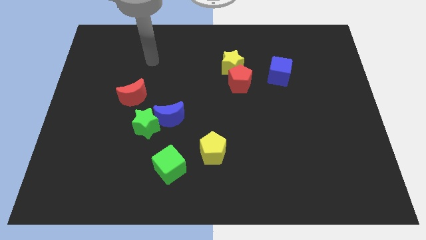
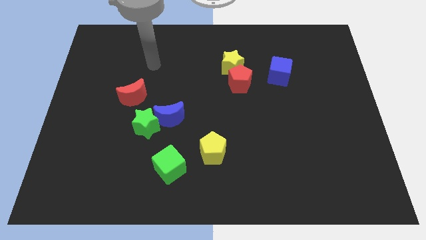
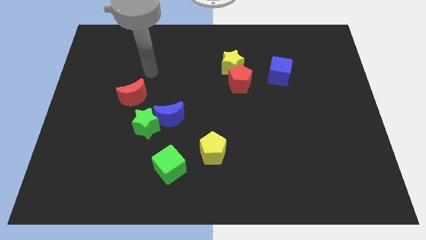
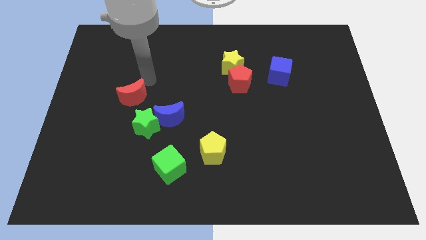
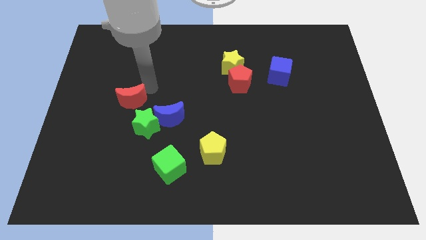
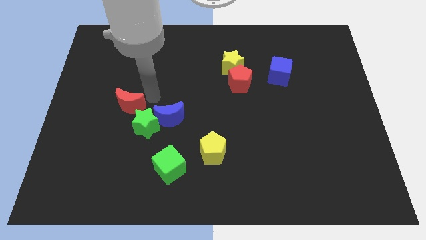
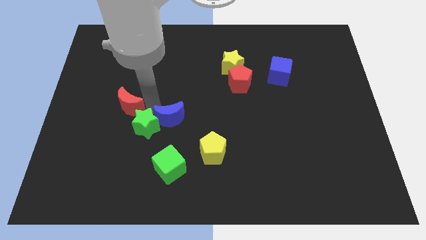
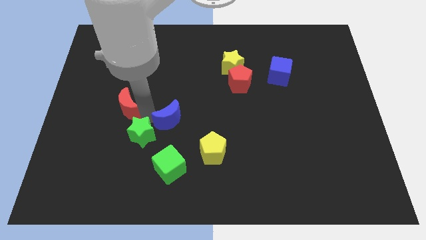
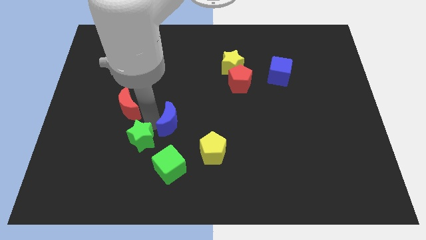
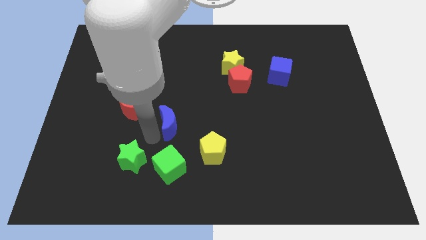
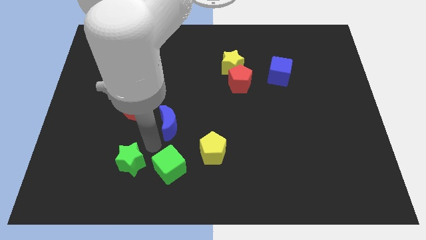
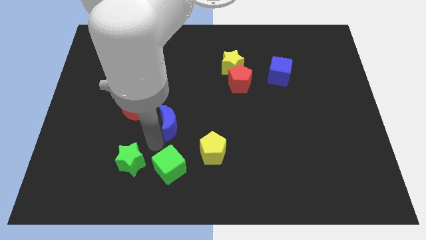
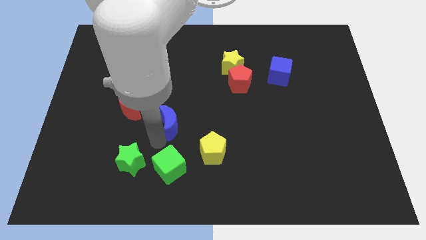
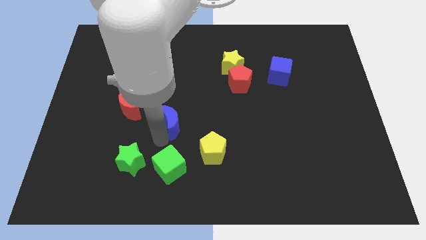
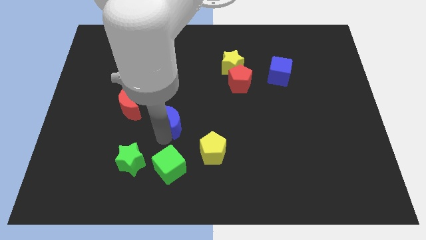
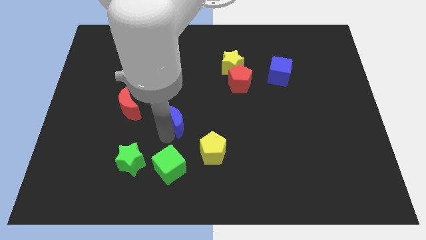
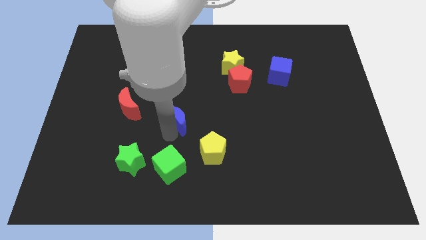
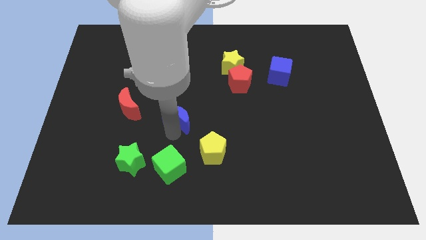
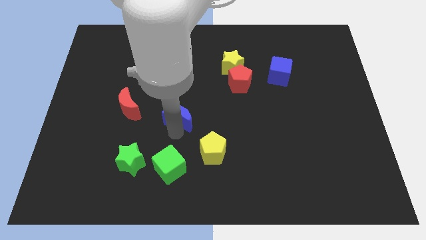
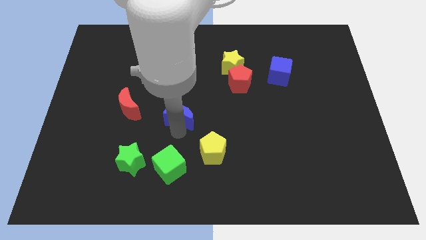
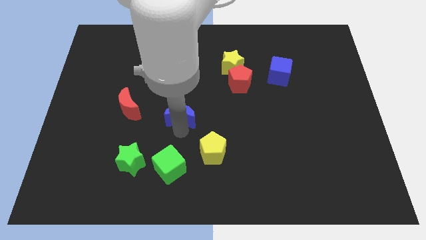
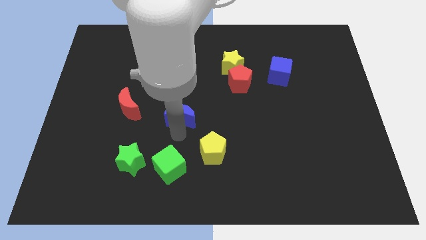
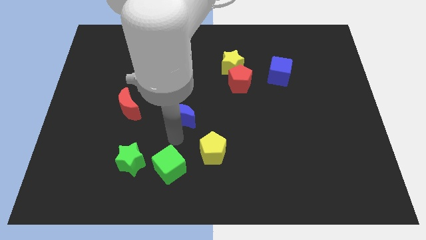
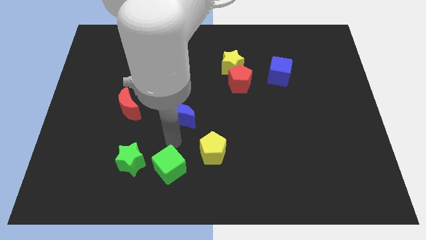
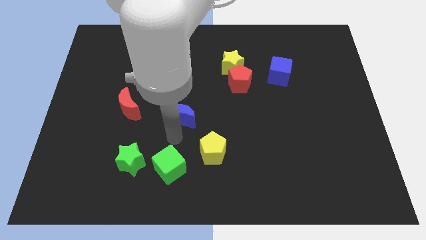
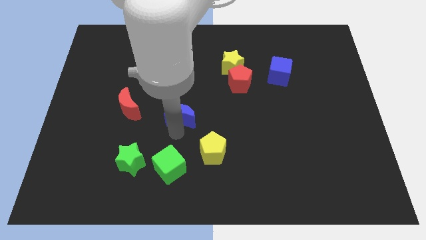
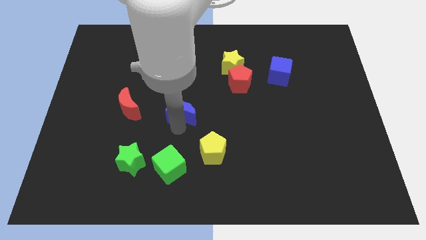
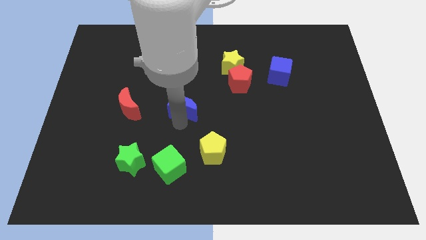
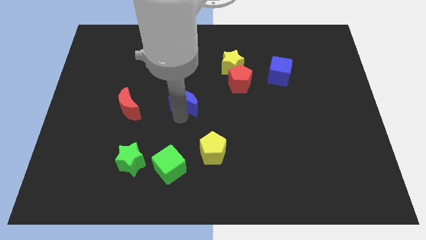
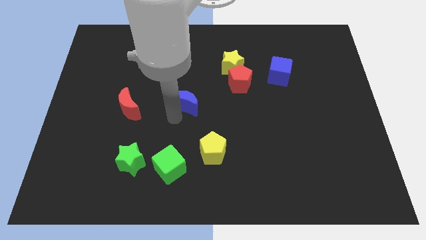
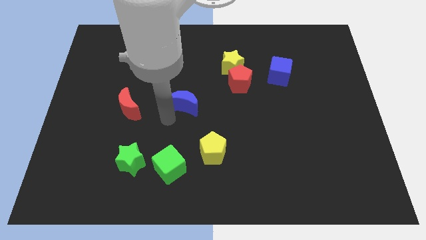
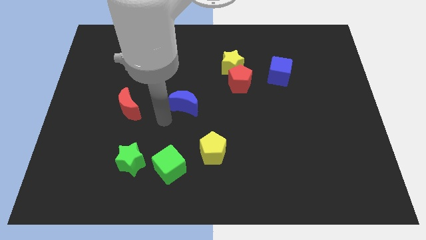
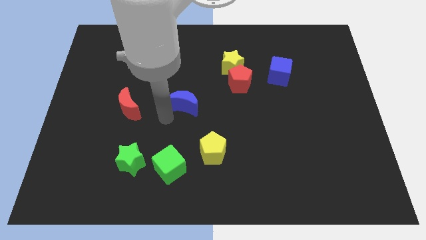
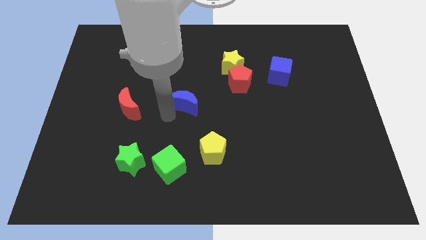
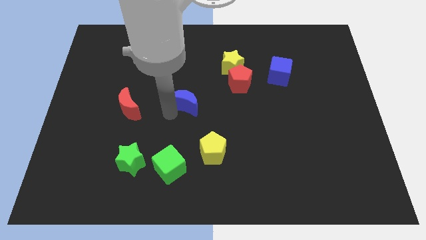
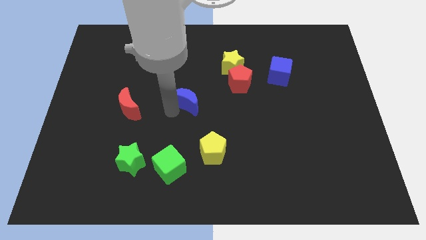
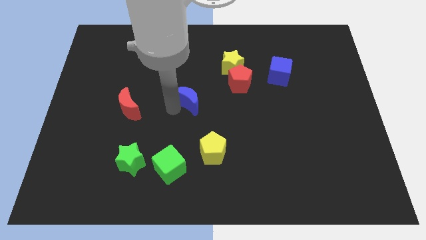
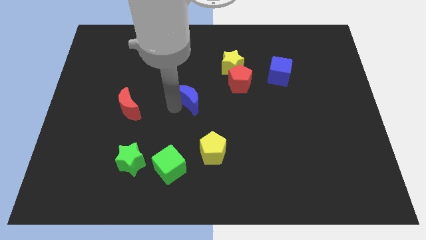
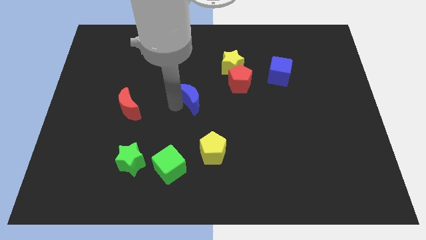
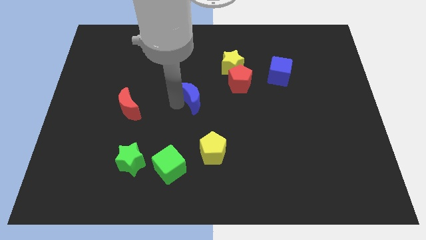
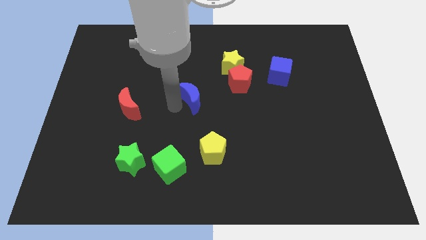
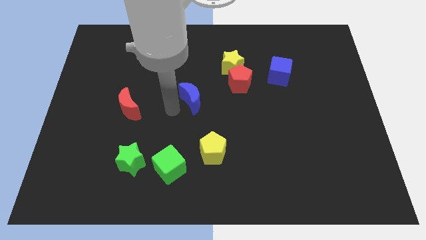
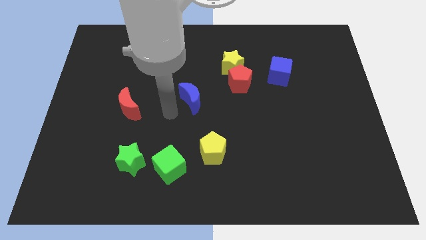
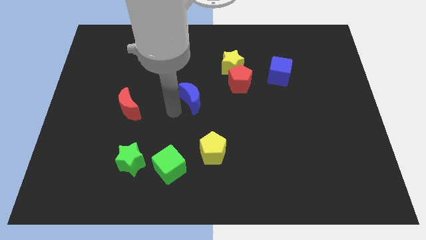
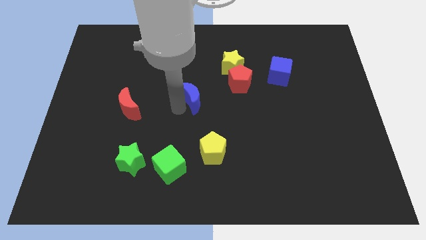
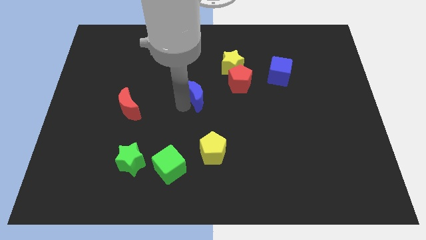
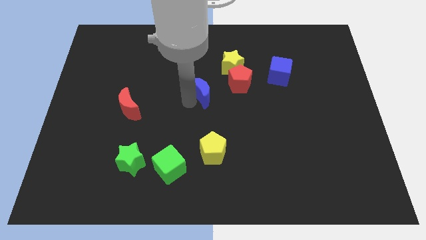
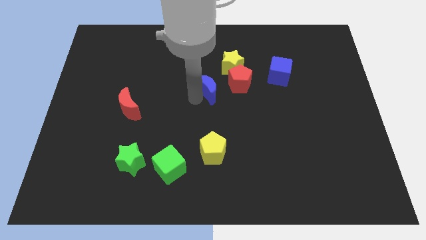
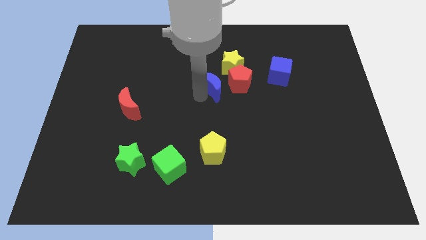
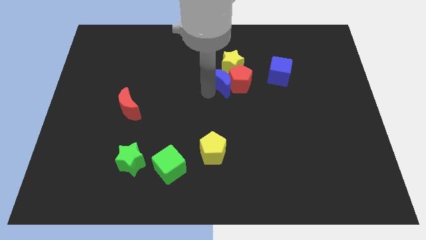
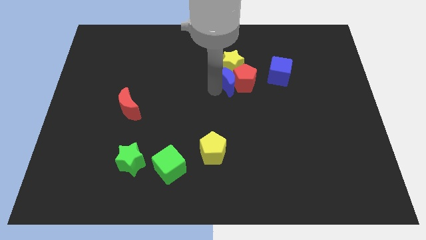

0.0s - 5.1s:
slide the blue moon to the yellow star

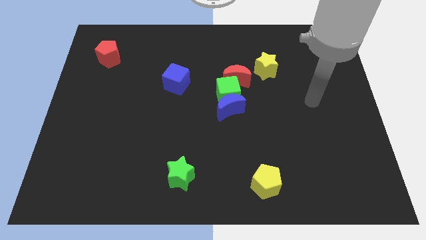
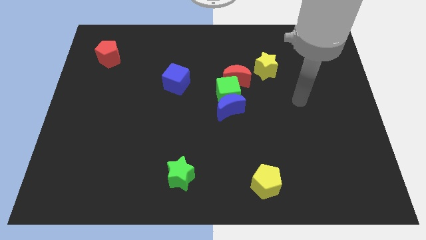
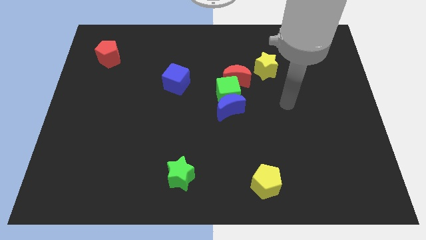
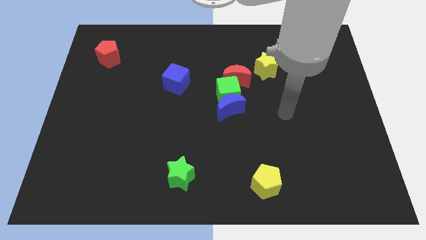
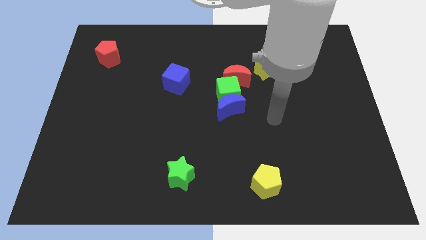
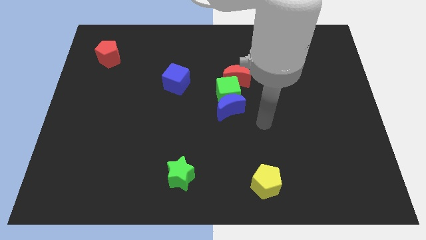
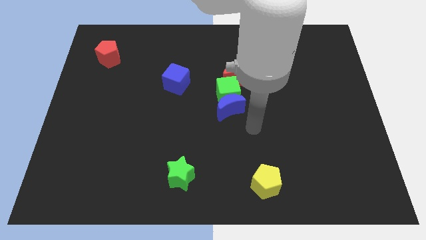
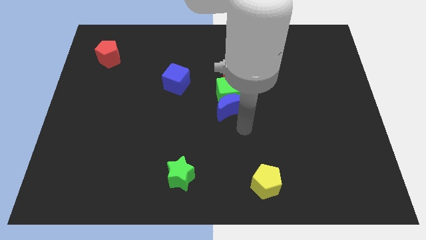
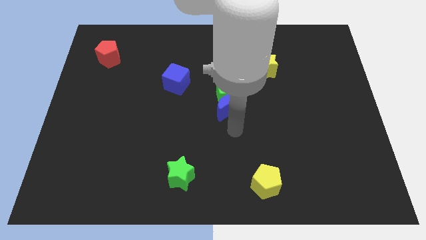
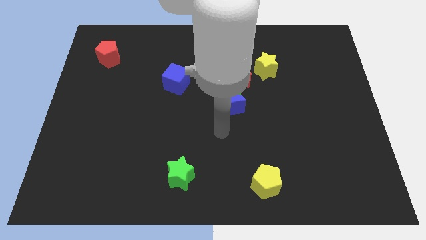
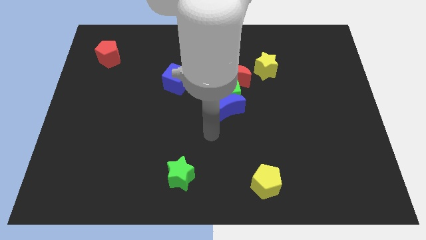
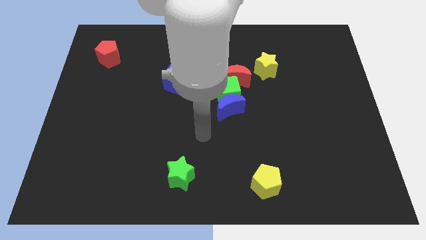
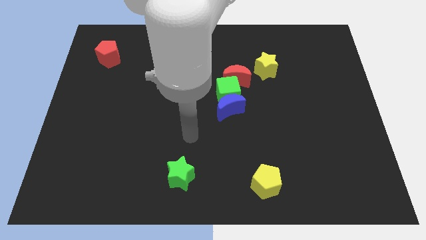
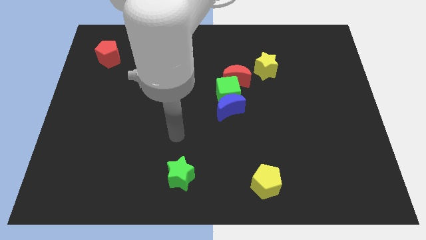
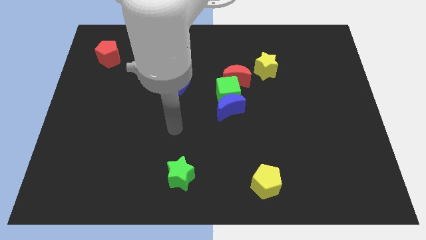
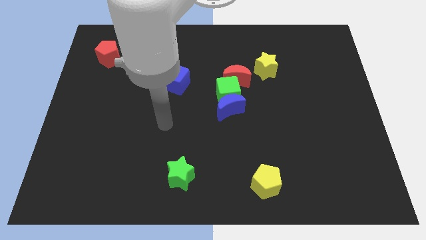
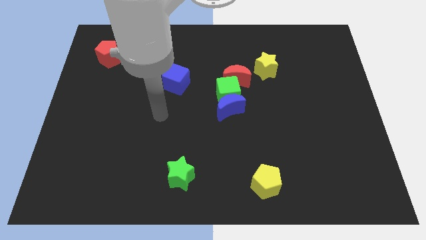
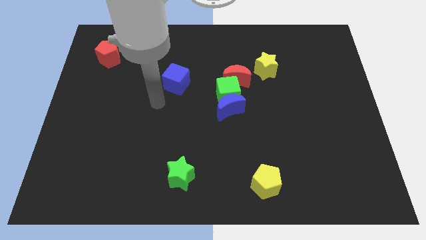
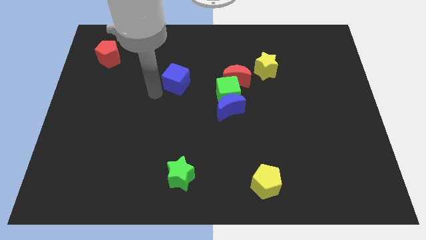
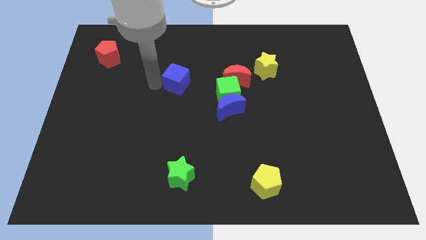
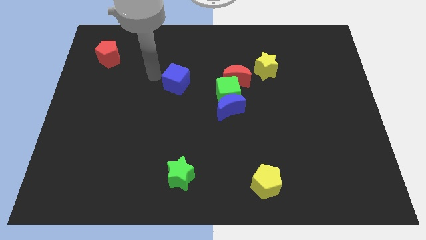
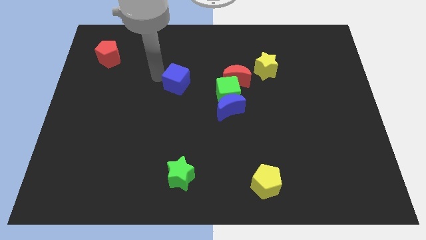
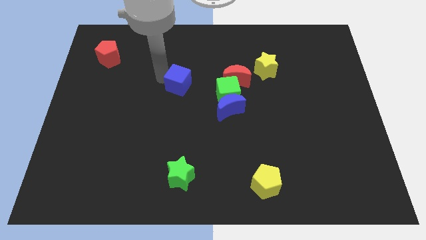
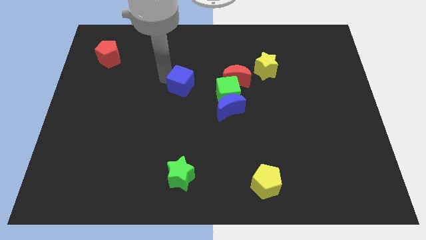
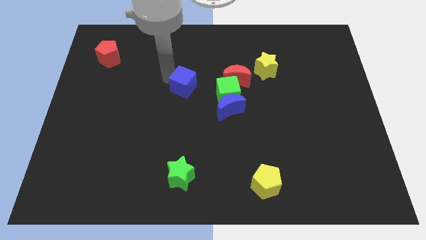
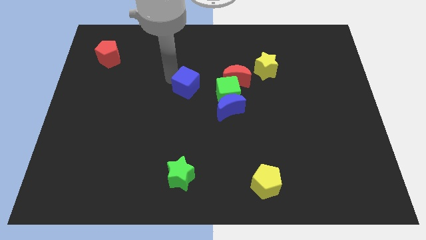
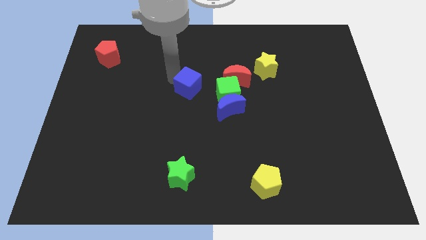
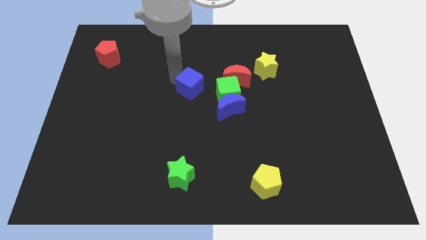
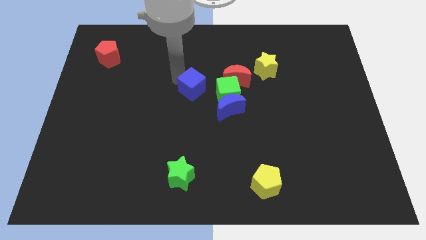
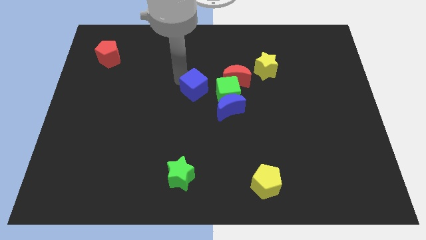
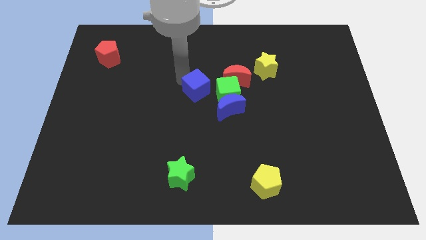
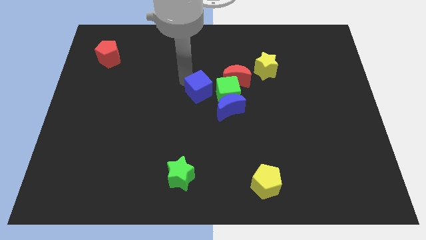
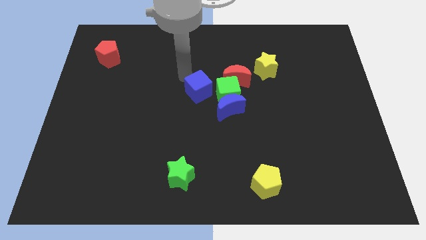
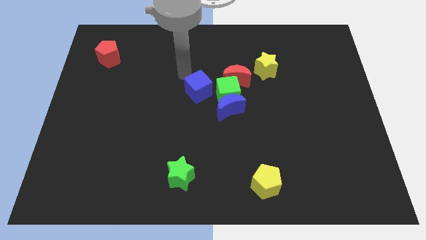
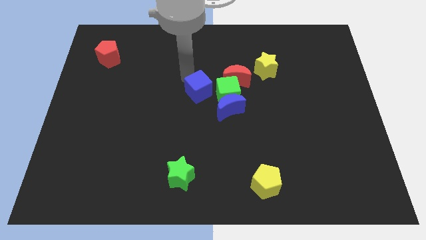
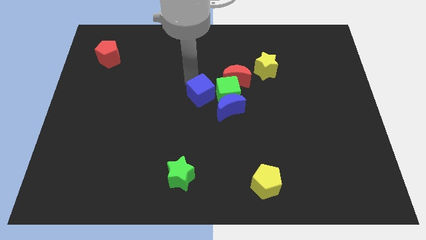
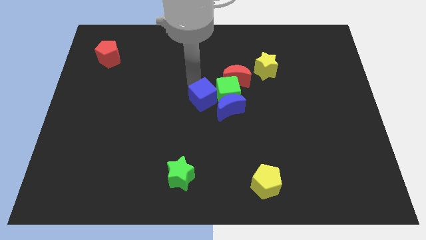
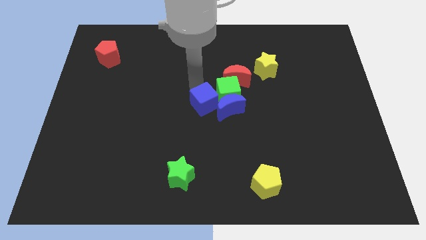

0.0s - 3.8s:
slide the blue cube close to the blue moon
